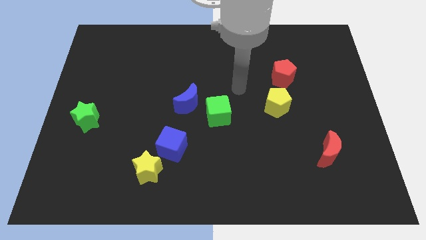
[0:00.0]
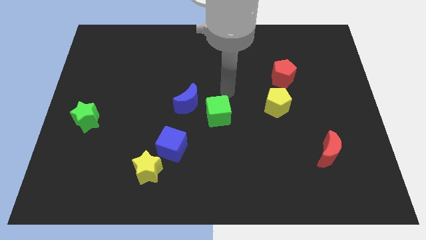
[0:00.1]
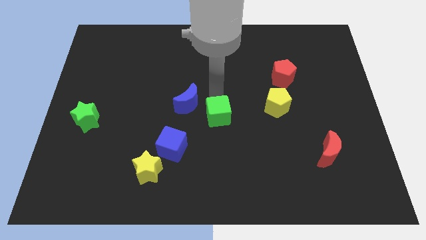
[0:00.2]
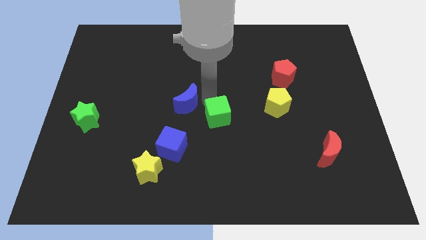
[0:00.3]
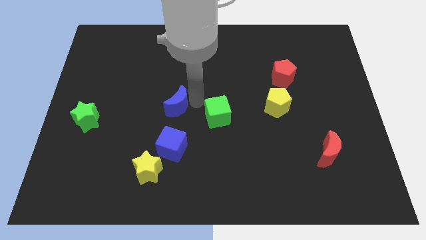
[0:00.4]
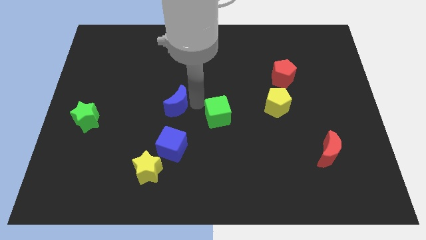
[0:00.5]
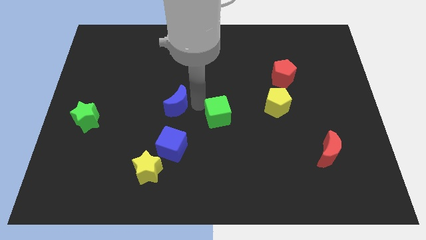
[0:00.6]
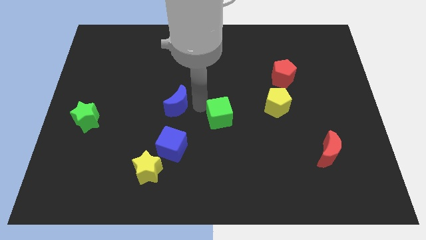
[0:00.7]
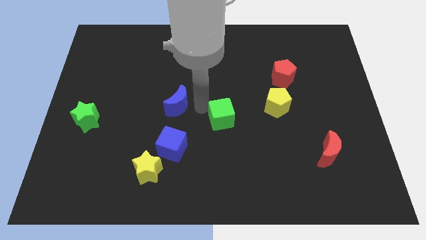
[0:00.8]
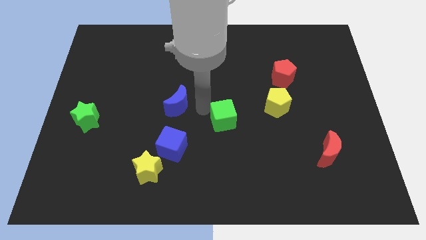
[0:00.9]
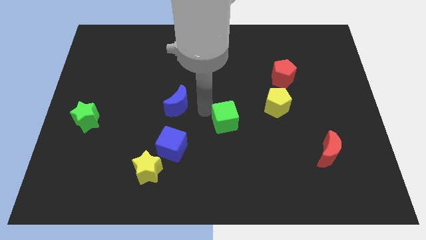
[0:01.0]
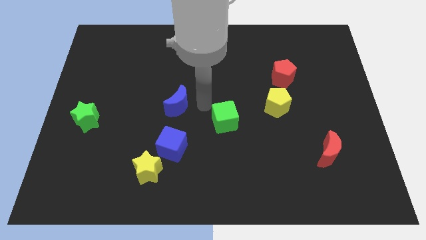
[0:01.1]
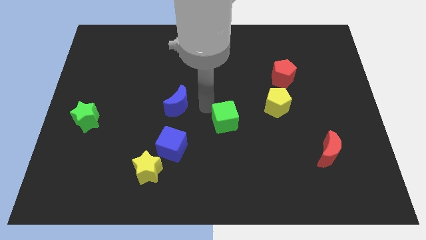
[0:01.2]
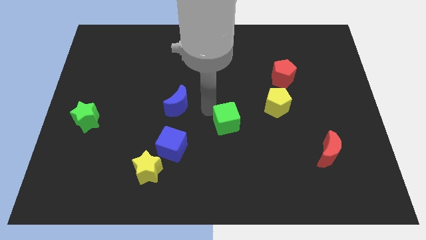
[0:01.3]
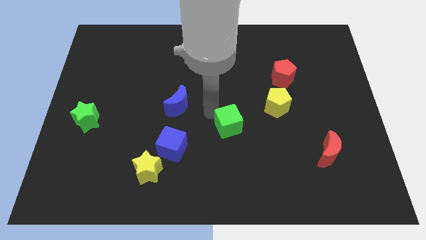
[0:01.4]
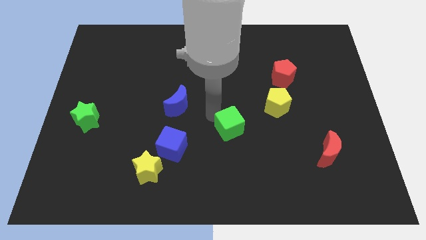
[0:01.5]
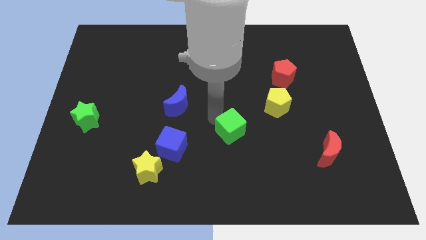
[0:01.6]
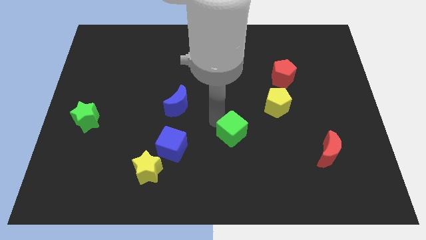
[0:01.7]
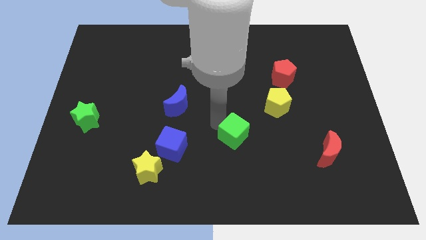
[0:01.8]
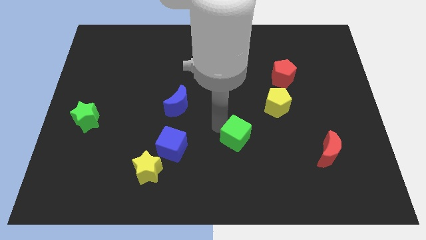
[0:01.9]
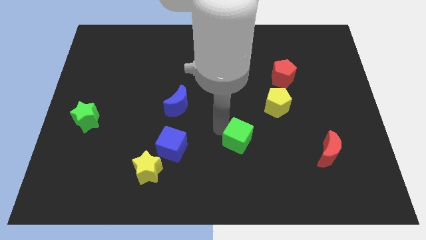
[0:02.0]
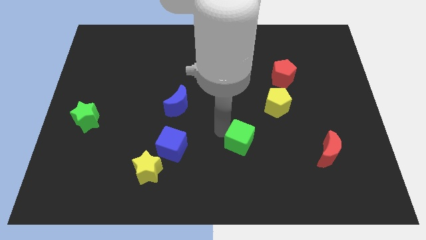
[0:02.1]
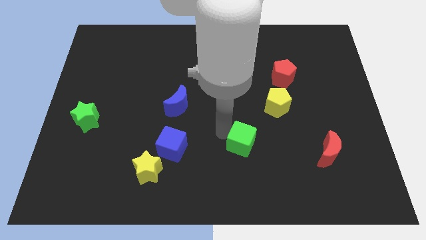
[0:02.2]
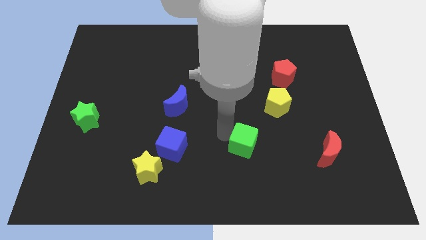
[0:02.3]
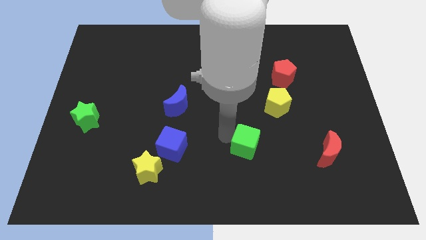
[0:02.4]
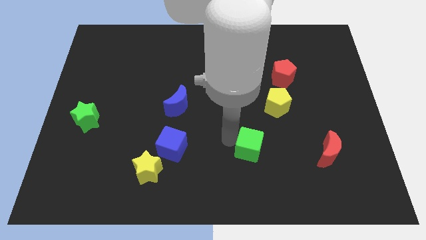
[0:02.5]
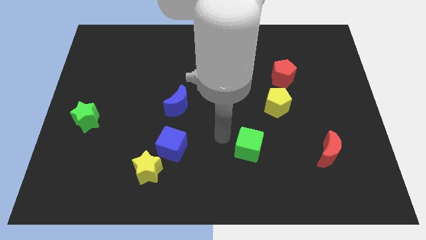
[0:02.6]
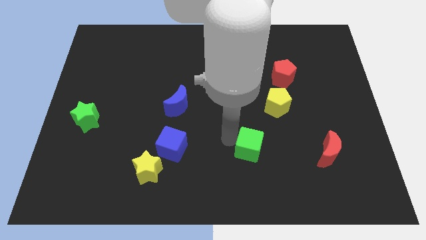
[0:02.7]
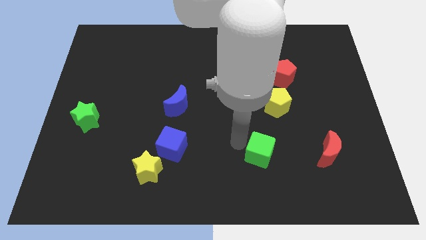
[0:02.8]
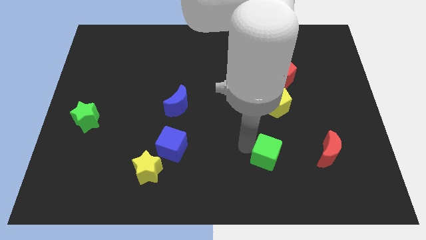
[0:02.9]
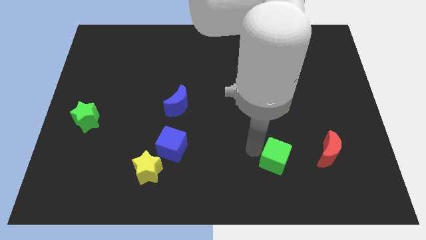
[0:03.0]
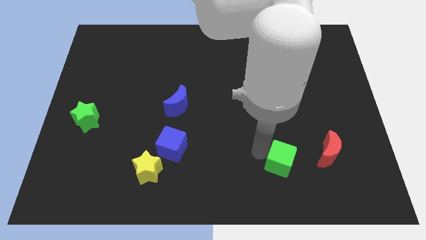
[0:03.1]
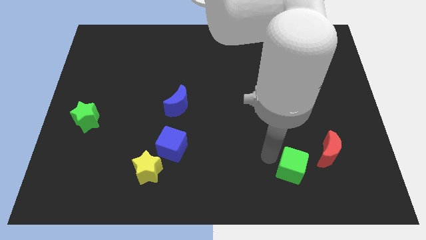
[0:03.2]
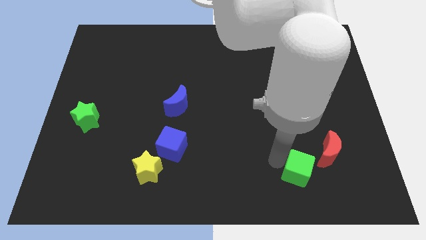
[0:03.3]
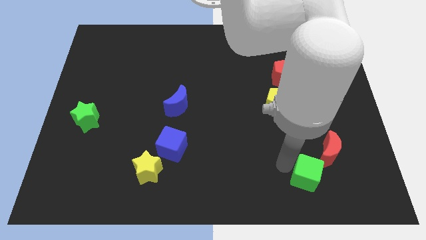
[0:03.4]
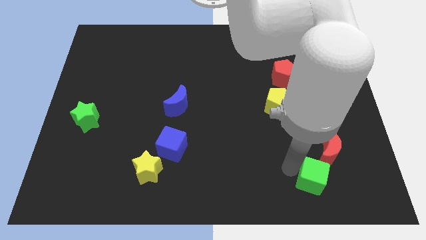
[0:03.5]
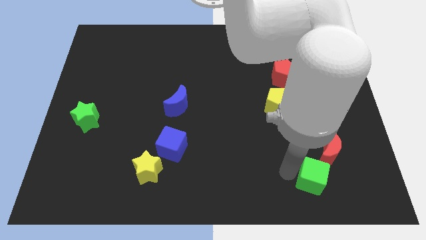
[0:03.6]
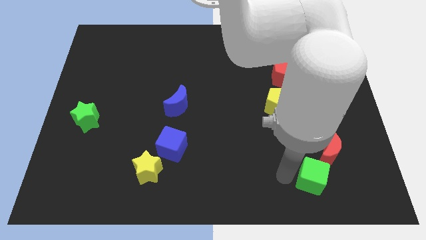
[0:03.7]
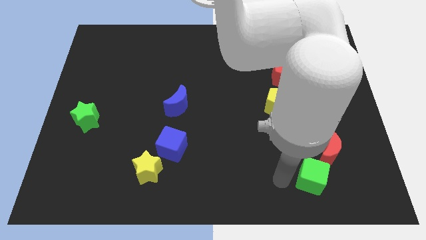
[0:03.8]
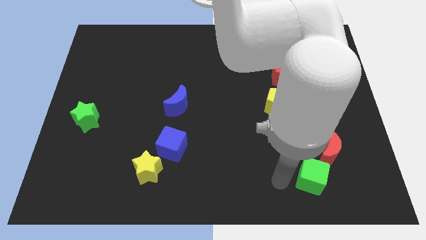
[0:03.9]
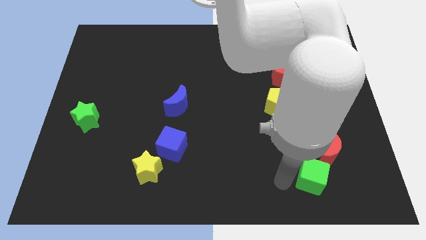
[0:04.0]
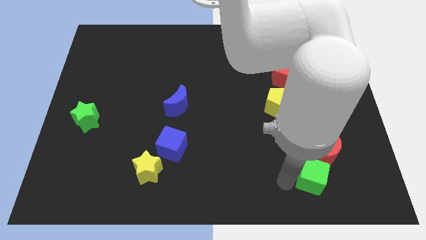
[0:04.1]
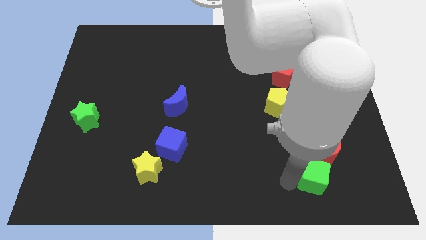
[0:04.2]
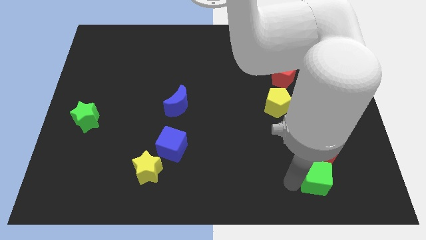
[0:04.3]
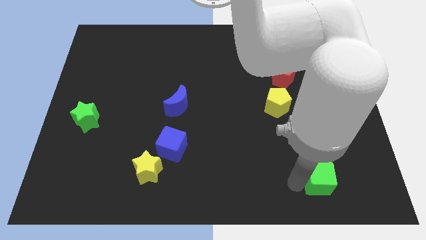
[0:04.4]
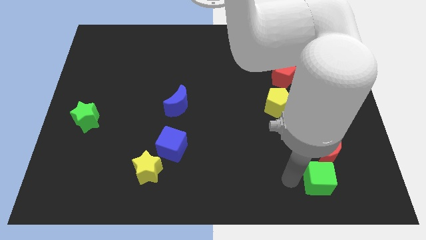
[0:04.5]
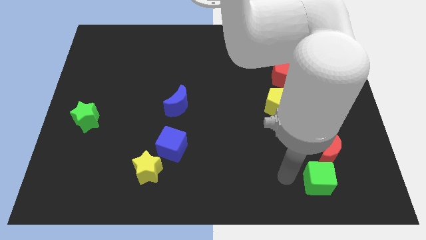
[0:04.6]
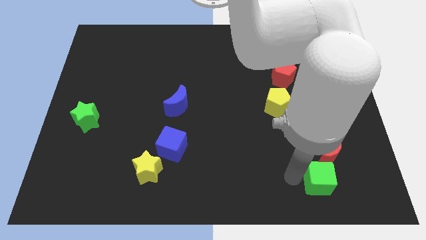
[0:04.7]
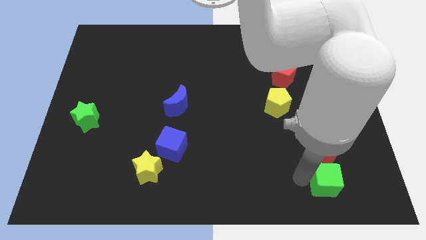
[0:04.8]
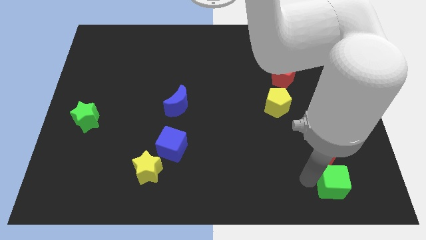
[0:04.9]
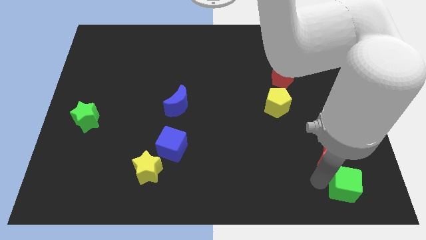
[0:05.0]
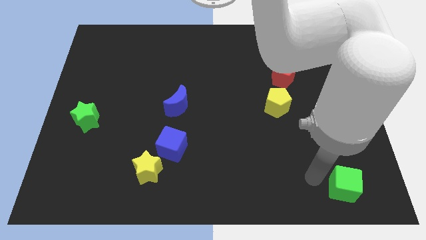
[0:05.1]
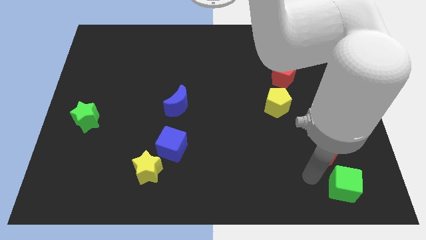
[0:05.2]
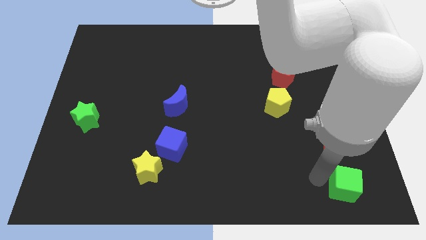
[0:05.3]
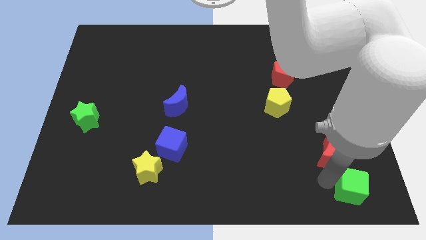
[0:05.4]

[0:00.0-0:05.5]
put the green cube to the bottom right corner

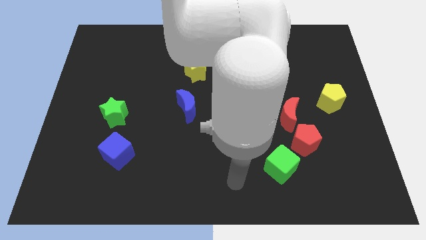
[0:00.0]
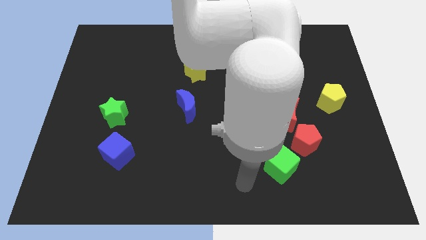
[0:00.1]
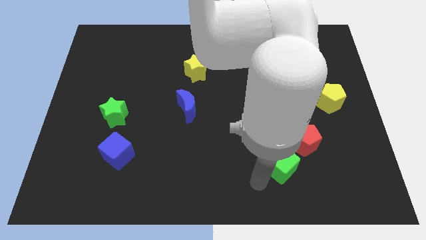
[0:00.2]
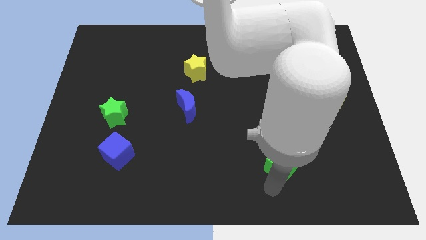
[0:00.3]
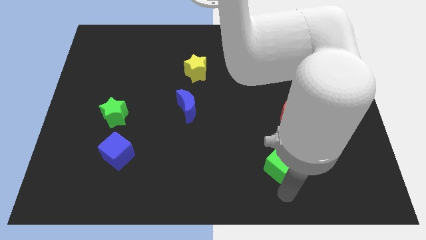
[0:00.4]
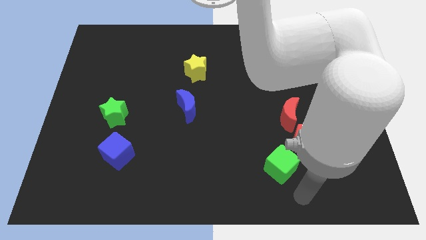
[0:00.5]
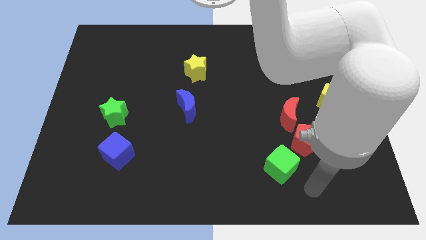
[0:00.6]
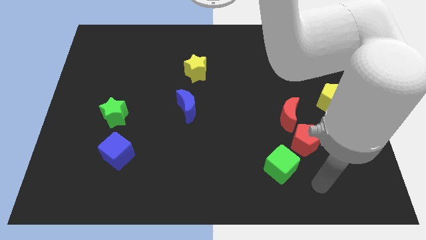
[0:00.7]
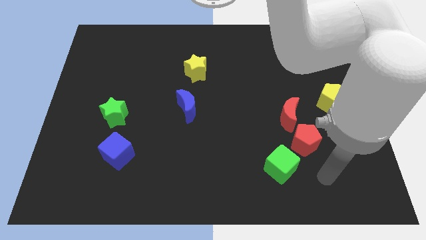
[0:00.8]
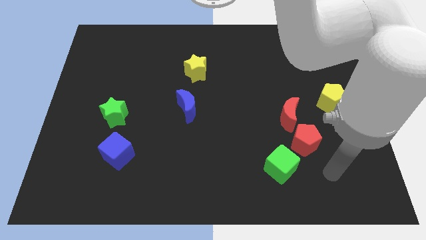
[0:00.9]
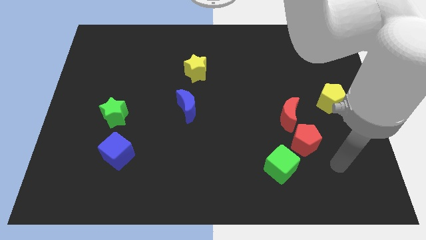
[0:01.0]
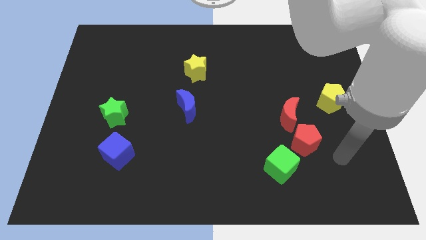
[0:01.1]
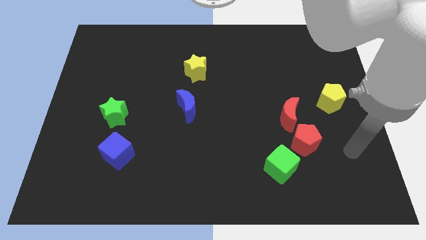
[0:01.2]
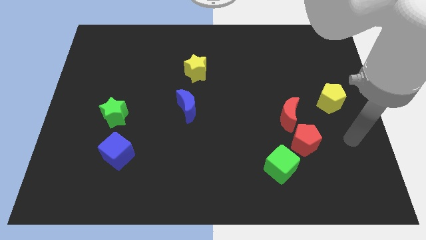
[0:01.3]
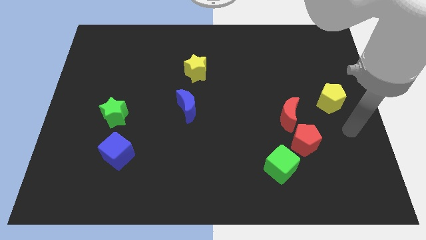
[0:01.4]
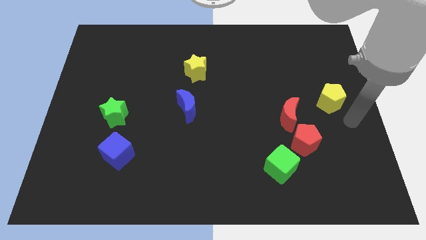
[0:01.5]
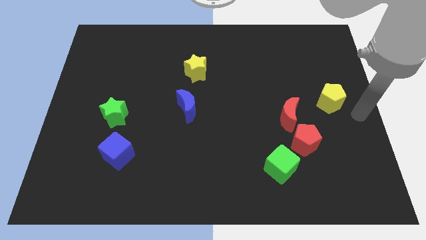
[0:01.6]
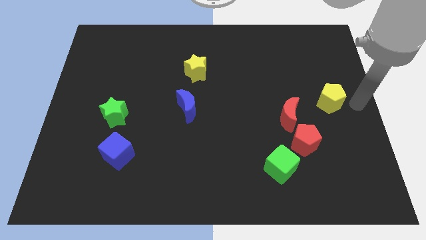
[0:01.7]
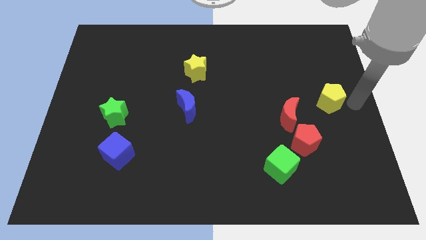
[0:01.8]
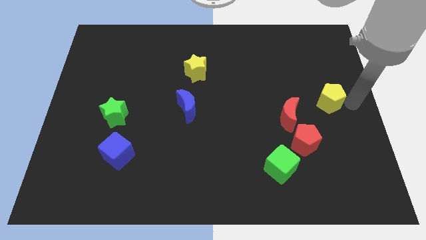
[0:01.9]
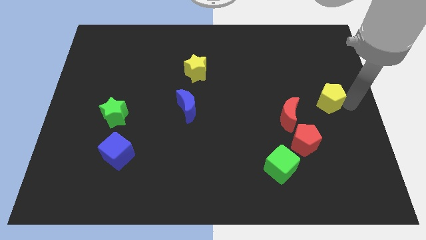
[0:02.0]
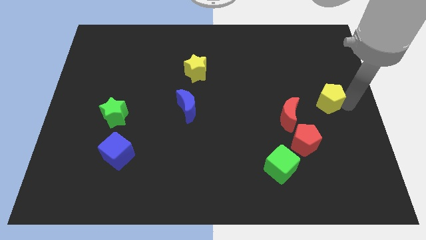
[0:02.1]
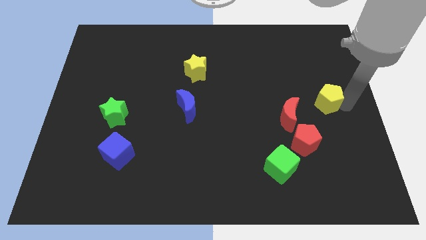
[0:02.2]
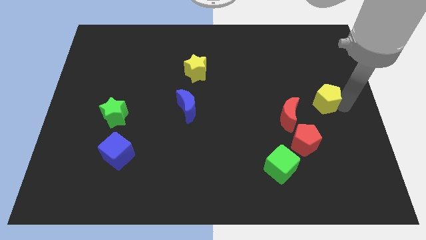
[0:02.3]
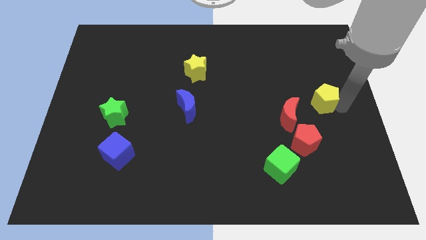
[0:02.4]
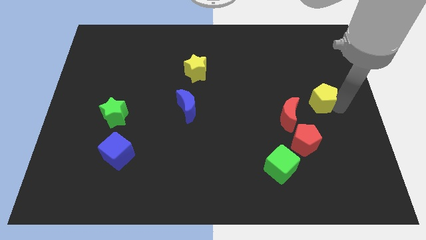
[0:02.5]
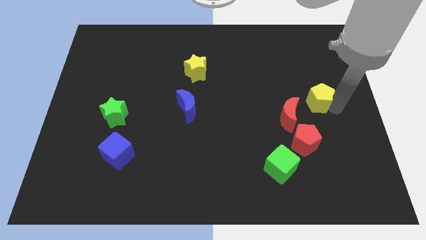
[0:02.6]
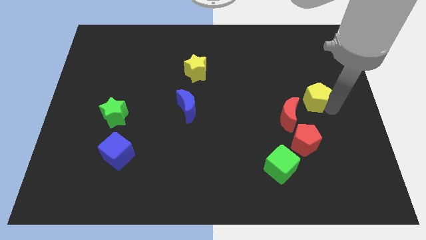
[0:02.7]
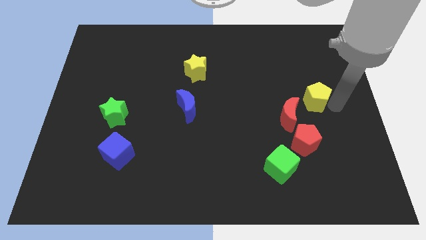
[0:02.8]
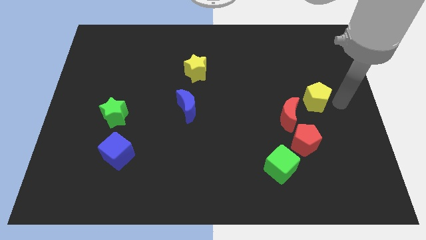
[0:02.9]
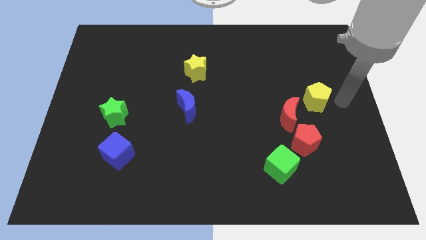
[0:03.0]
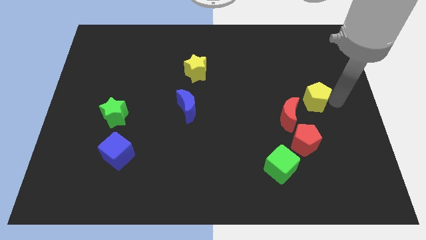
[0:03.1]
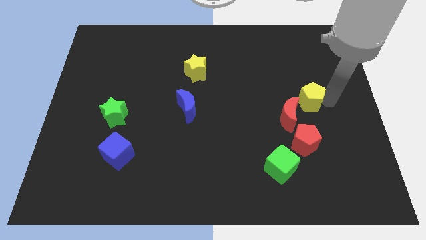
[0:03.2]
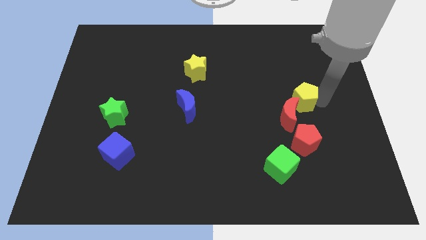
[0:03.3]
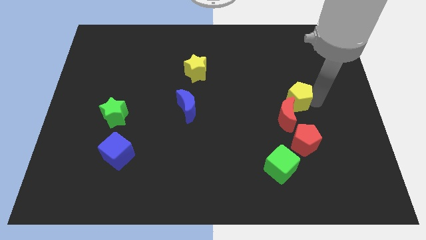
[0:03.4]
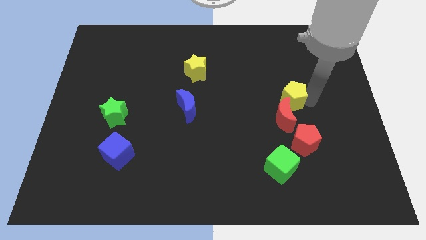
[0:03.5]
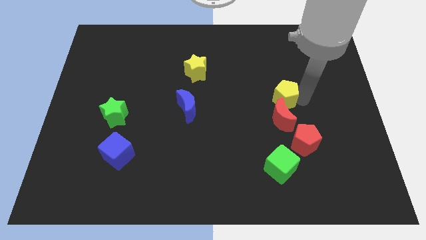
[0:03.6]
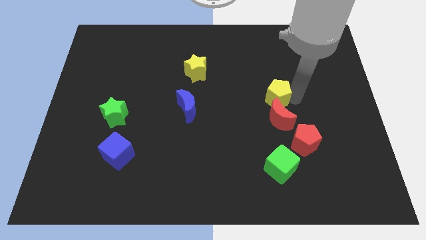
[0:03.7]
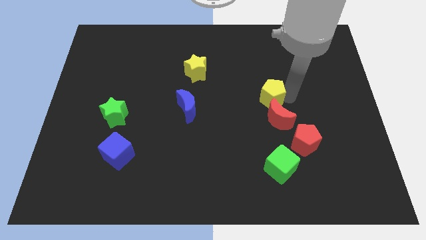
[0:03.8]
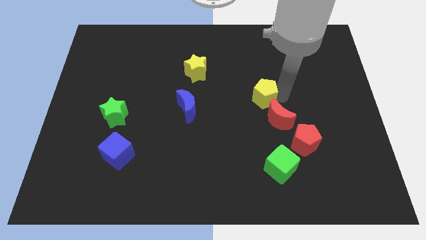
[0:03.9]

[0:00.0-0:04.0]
slide the yellow pentagon to the center of the board
